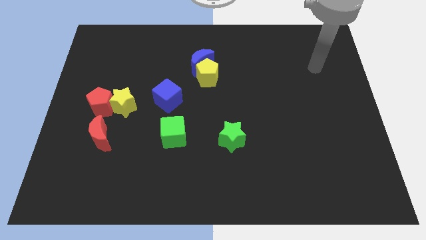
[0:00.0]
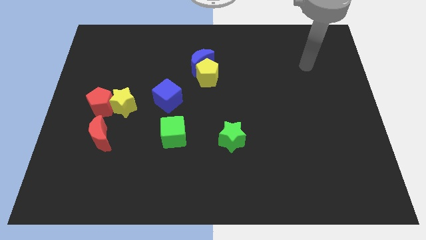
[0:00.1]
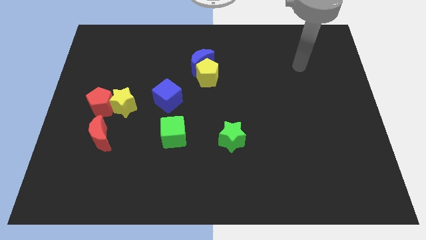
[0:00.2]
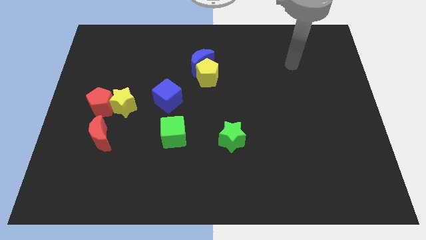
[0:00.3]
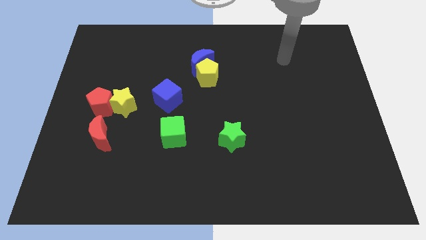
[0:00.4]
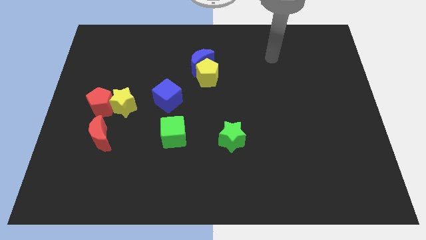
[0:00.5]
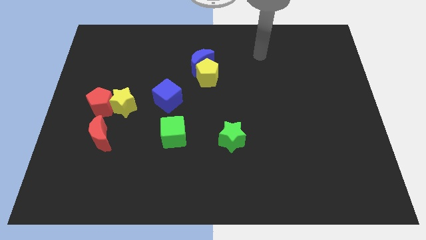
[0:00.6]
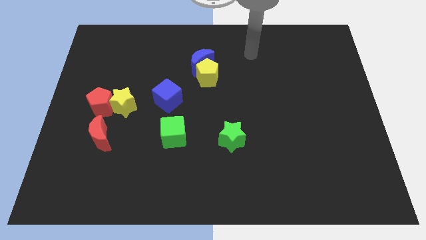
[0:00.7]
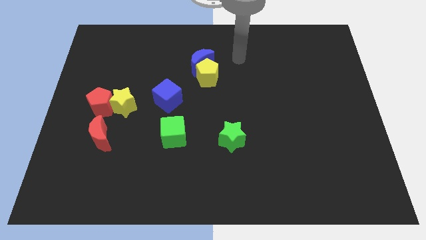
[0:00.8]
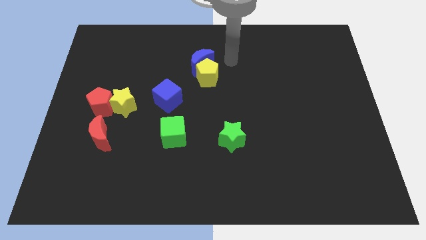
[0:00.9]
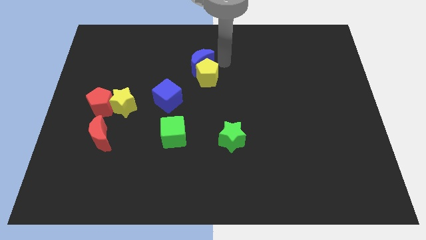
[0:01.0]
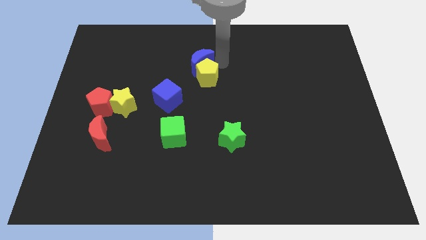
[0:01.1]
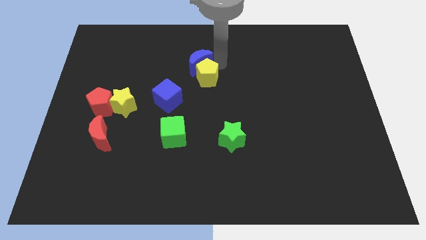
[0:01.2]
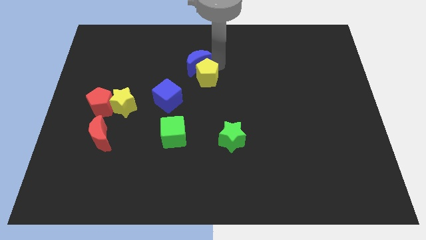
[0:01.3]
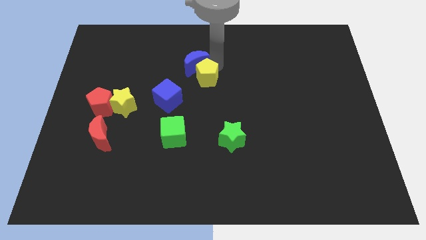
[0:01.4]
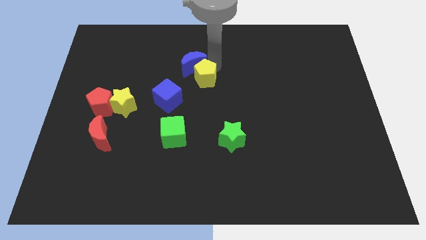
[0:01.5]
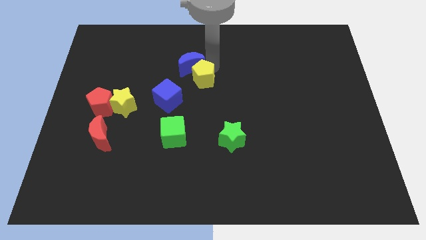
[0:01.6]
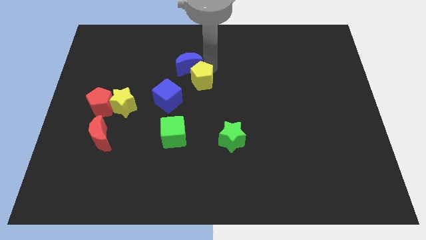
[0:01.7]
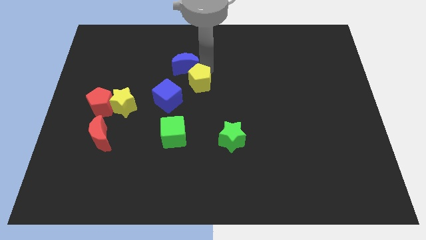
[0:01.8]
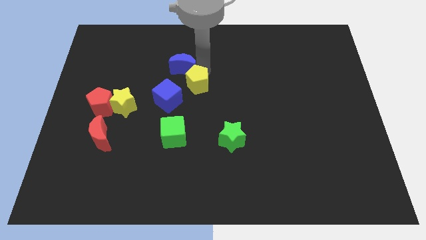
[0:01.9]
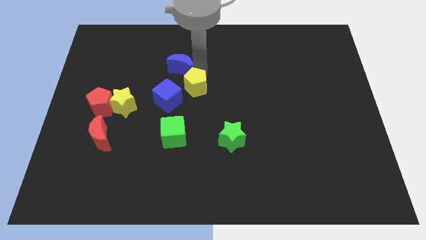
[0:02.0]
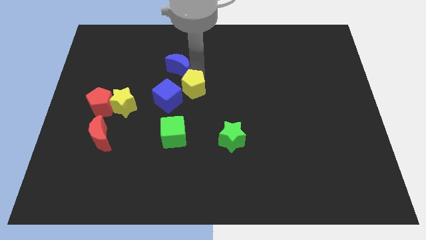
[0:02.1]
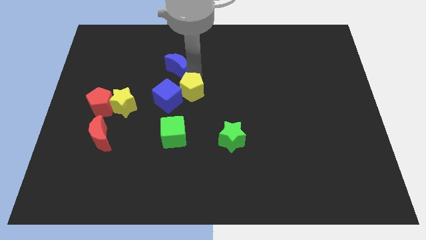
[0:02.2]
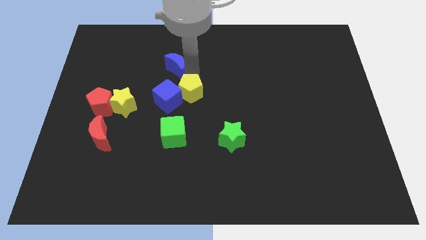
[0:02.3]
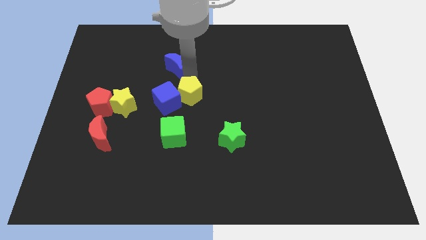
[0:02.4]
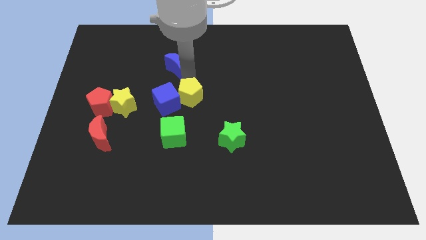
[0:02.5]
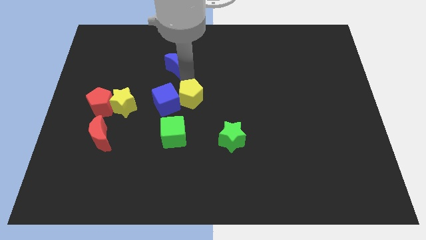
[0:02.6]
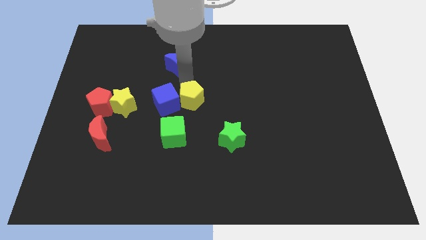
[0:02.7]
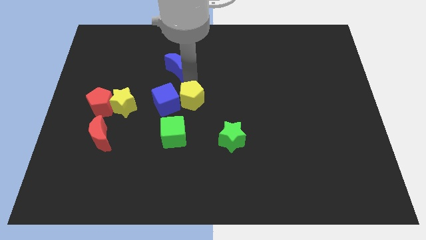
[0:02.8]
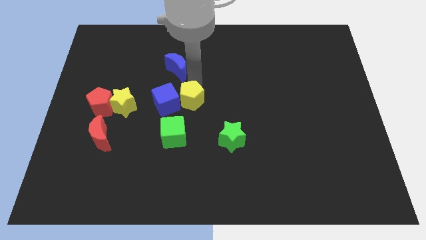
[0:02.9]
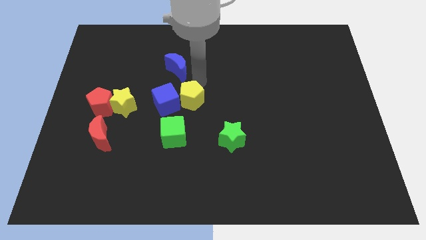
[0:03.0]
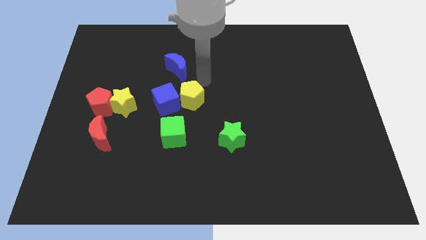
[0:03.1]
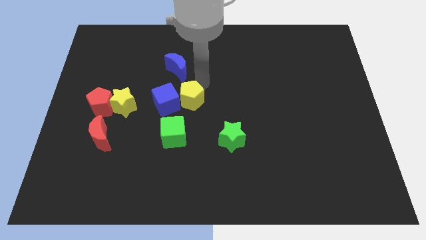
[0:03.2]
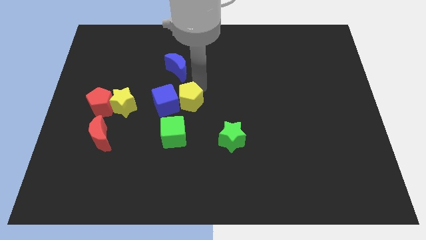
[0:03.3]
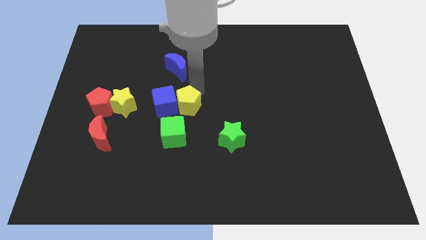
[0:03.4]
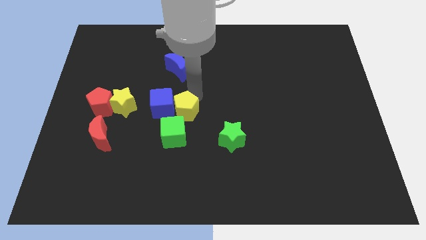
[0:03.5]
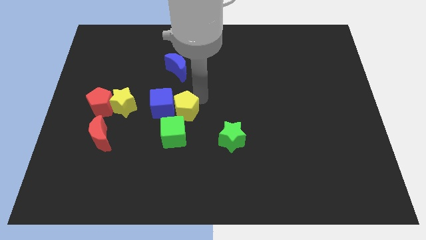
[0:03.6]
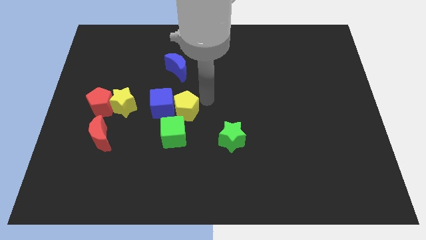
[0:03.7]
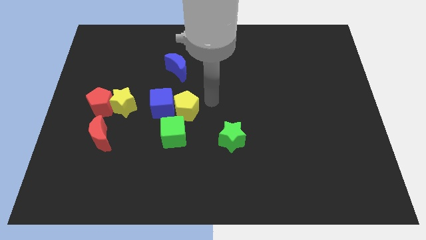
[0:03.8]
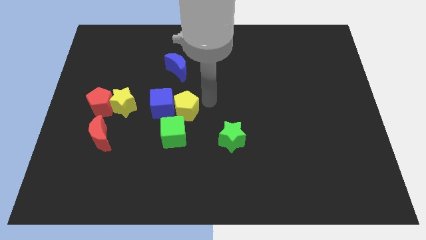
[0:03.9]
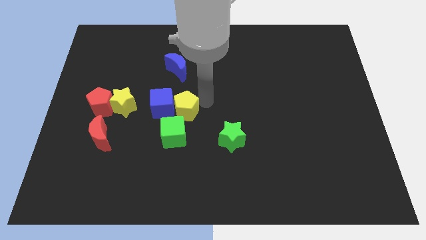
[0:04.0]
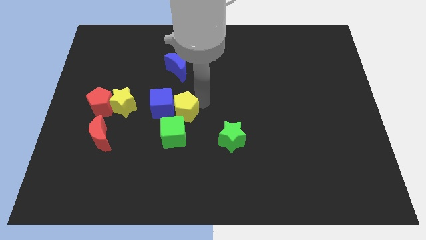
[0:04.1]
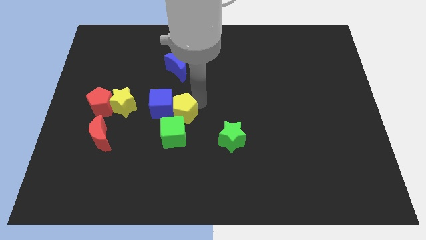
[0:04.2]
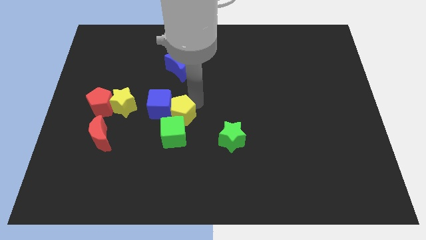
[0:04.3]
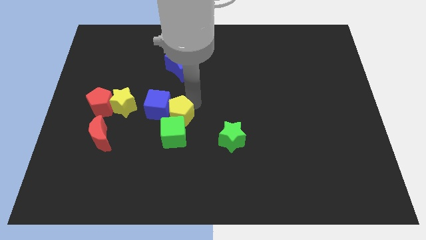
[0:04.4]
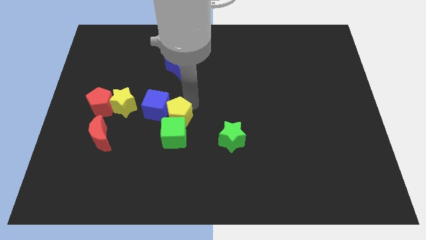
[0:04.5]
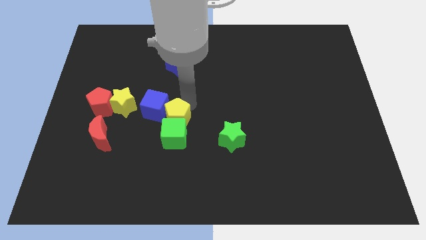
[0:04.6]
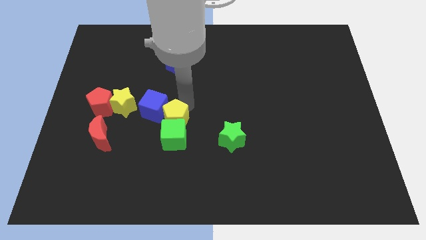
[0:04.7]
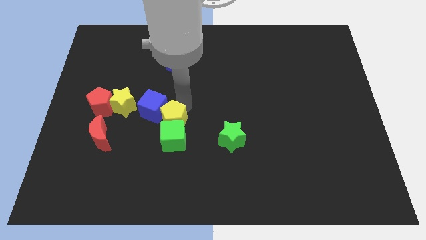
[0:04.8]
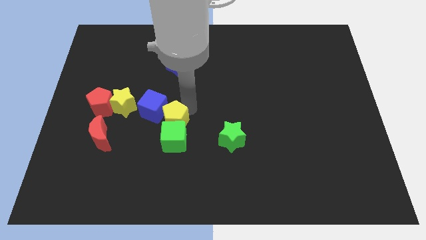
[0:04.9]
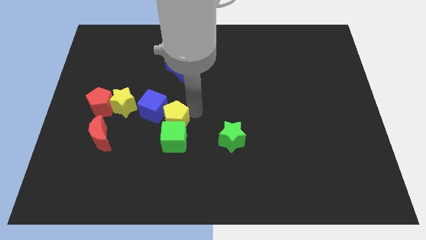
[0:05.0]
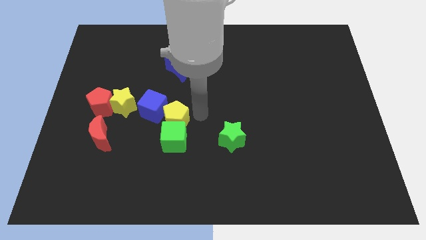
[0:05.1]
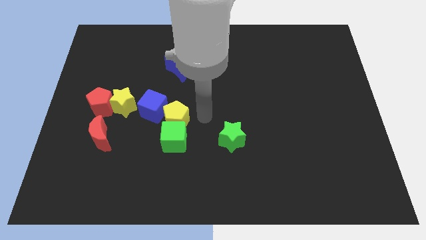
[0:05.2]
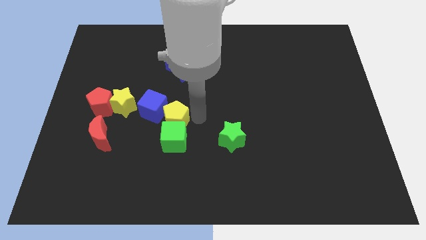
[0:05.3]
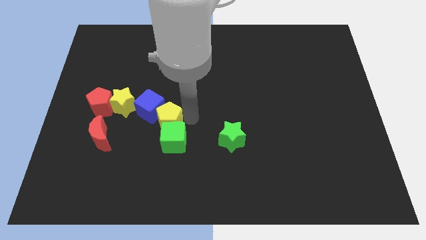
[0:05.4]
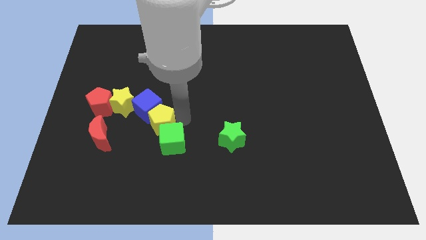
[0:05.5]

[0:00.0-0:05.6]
slide the yellow pentagon to the bottom right of the yellow star
